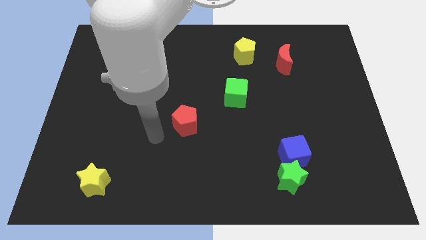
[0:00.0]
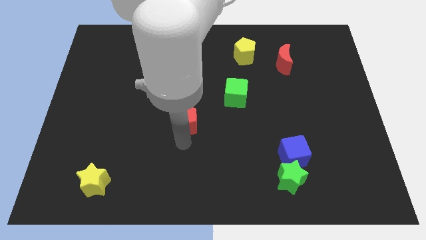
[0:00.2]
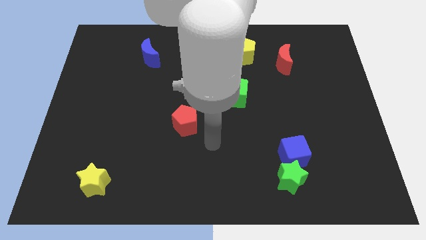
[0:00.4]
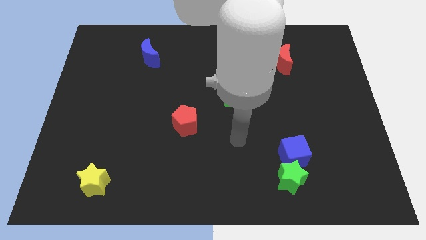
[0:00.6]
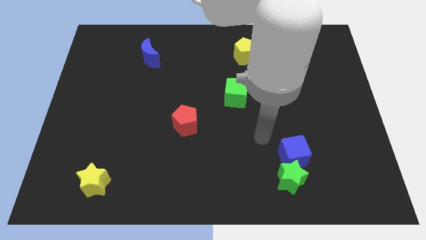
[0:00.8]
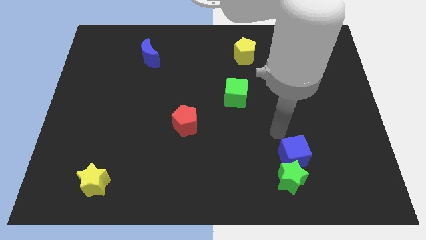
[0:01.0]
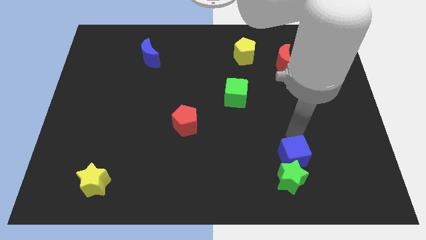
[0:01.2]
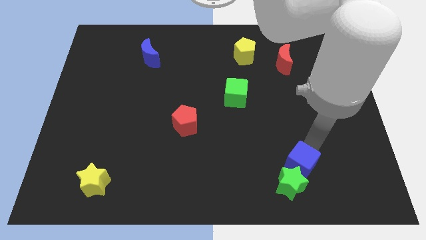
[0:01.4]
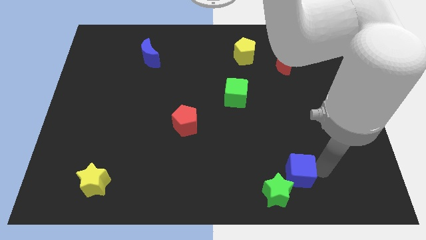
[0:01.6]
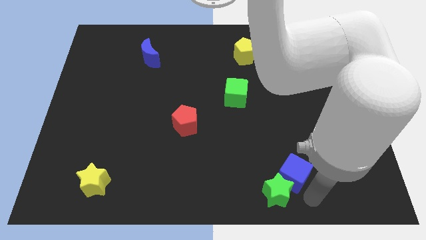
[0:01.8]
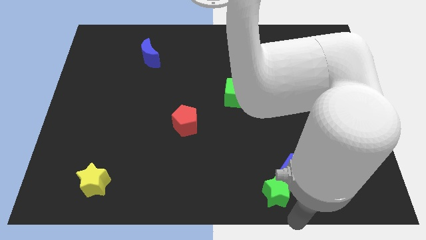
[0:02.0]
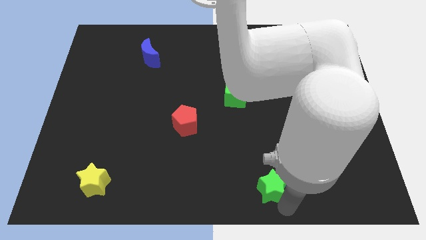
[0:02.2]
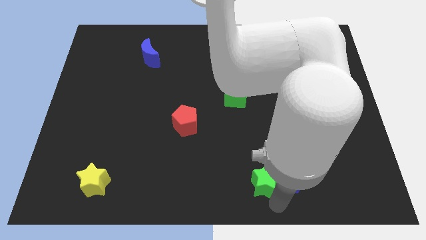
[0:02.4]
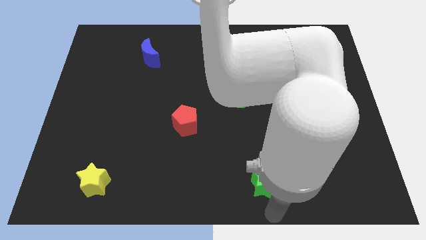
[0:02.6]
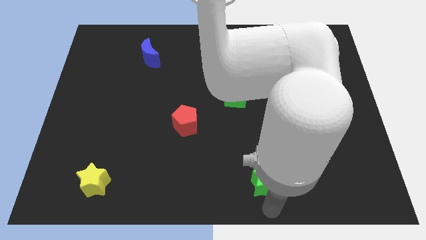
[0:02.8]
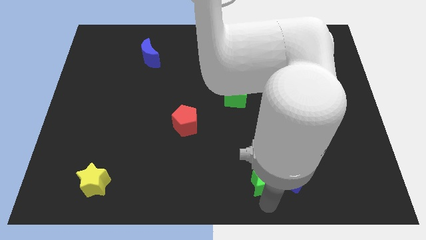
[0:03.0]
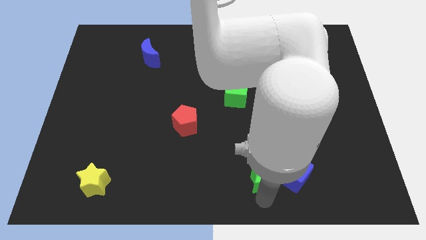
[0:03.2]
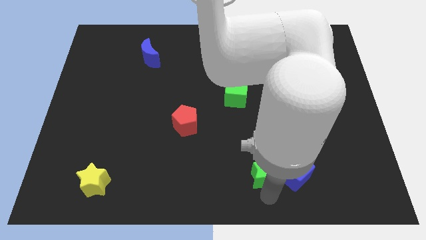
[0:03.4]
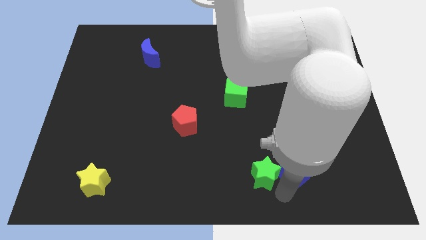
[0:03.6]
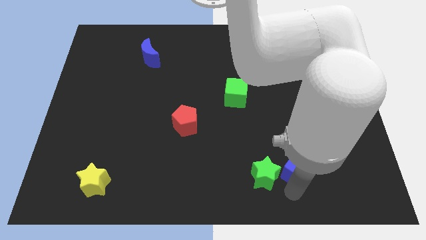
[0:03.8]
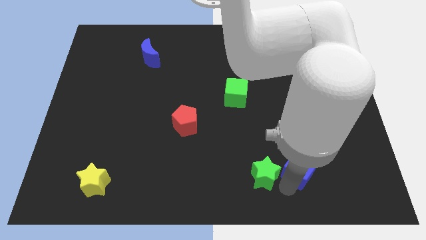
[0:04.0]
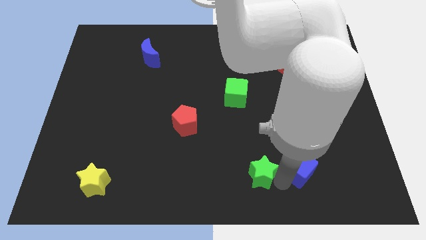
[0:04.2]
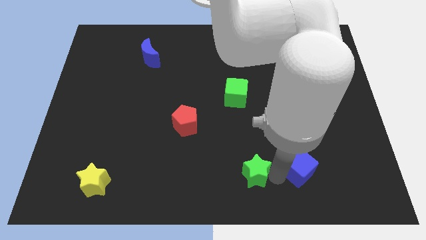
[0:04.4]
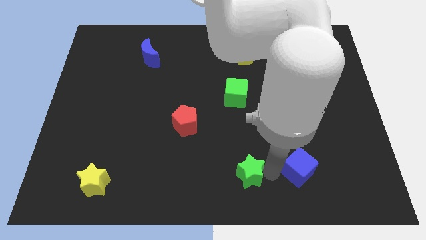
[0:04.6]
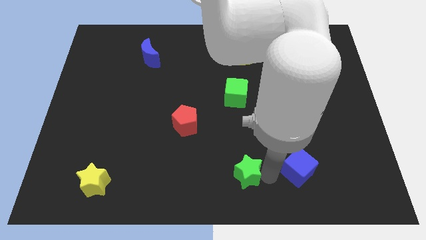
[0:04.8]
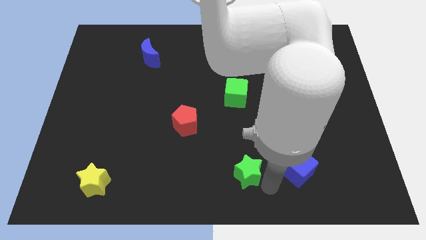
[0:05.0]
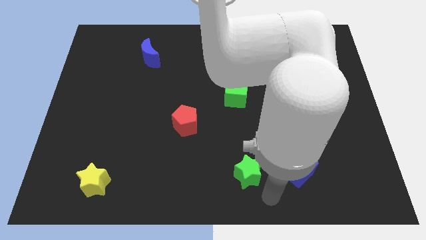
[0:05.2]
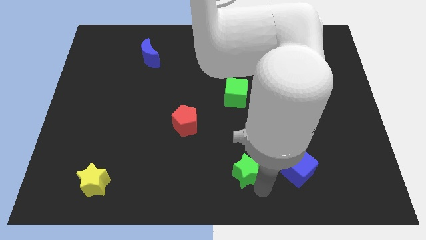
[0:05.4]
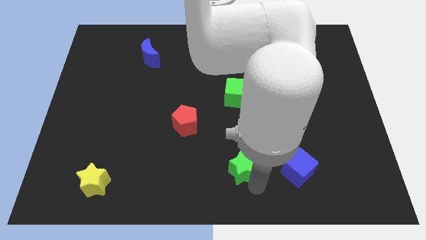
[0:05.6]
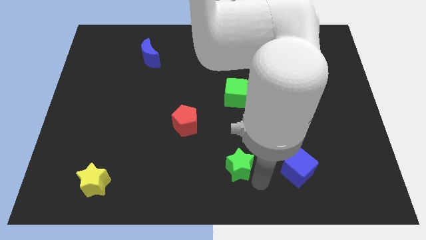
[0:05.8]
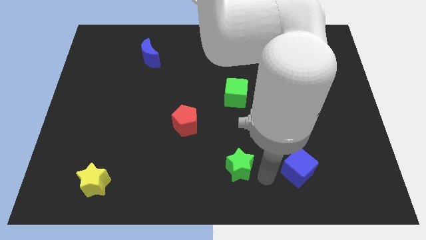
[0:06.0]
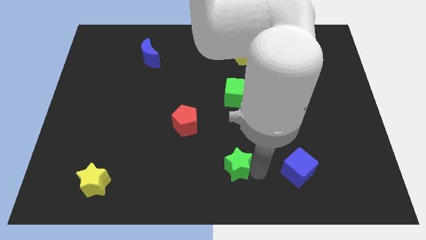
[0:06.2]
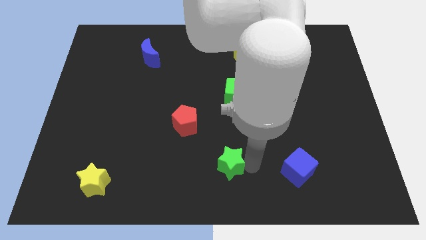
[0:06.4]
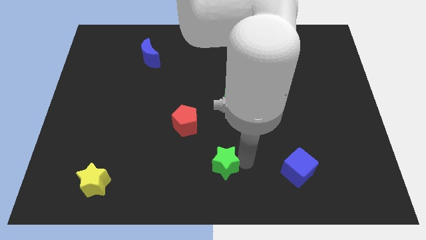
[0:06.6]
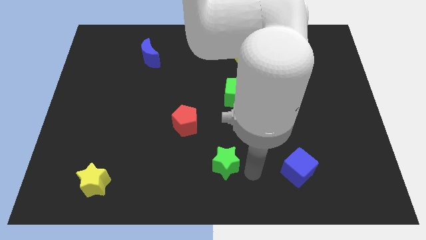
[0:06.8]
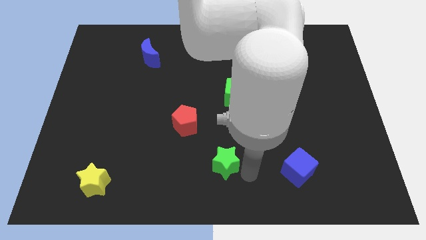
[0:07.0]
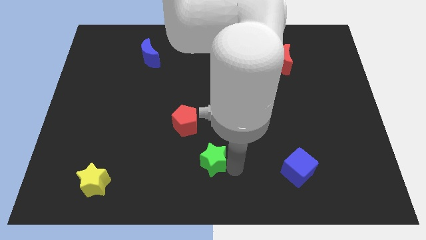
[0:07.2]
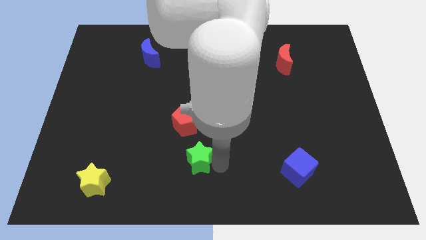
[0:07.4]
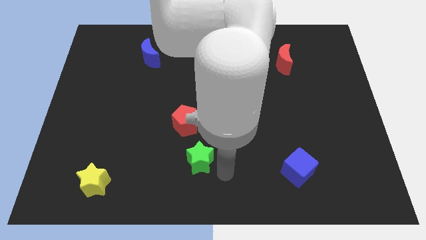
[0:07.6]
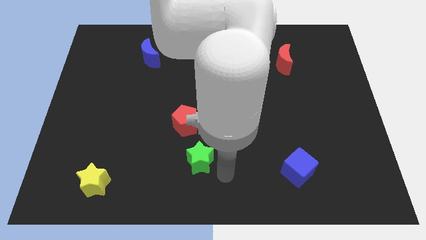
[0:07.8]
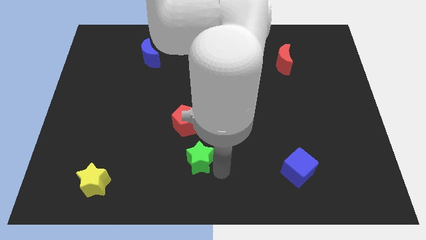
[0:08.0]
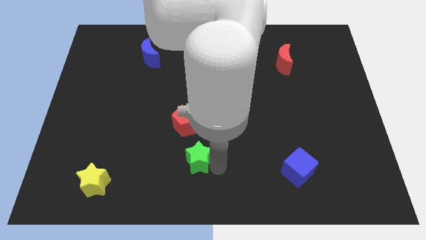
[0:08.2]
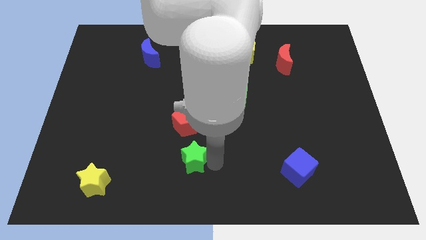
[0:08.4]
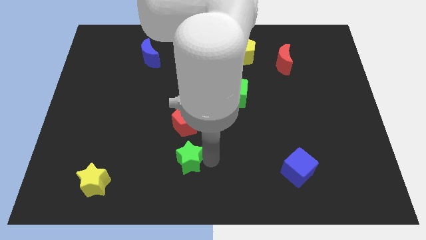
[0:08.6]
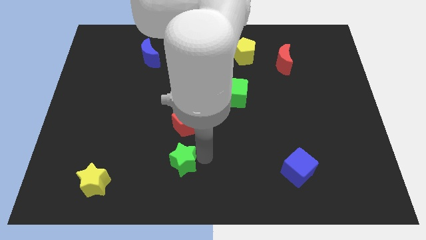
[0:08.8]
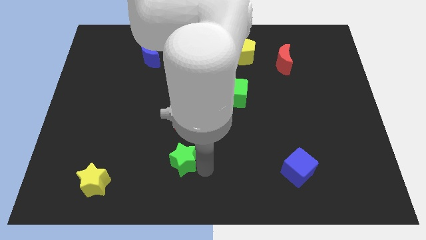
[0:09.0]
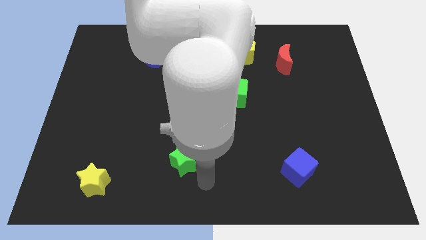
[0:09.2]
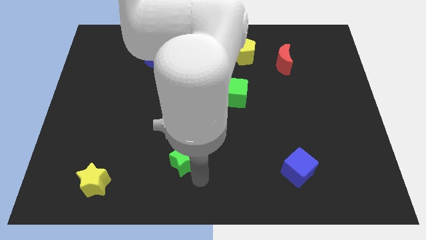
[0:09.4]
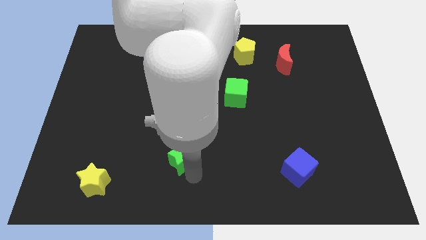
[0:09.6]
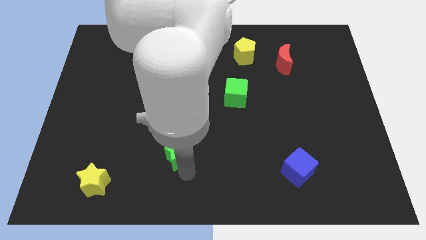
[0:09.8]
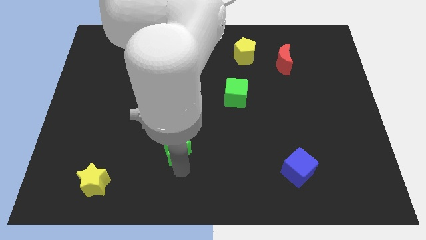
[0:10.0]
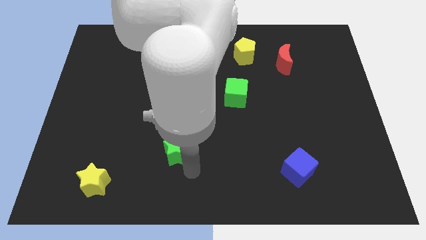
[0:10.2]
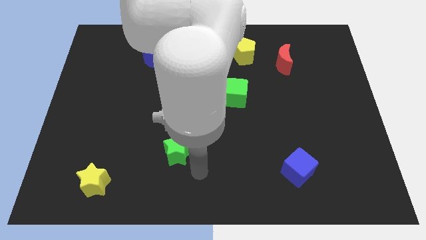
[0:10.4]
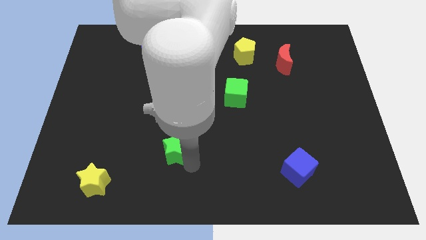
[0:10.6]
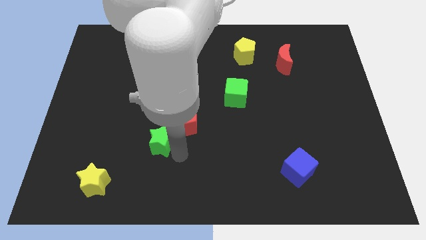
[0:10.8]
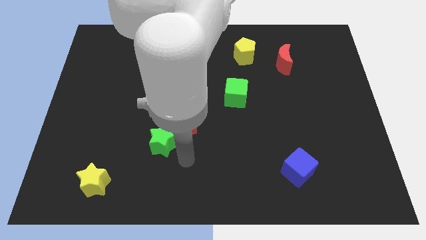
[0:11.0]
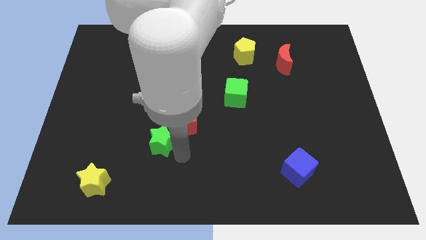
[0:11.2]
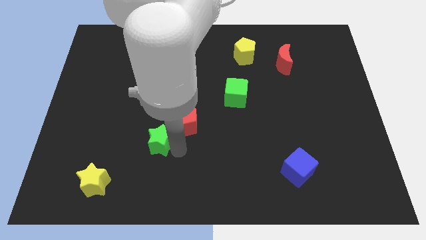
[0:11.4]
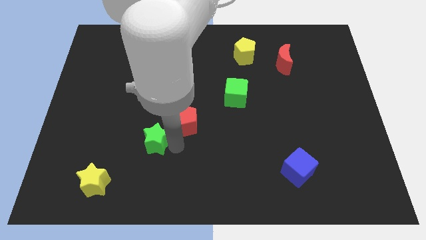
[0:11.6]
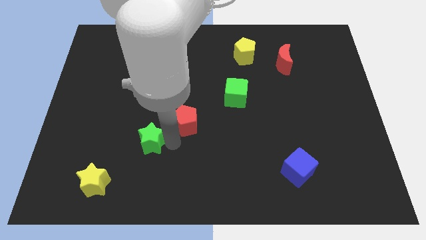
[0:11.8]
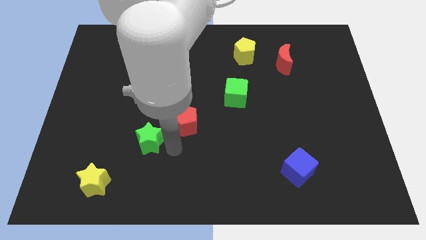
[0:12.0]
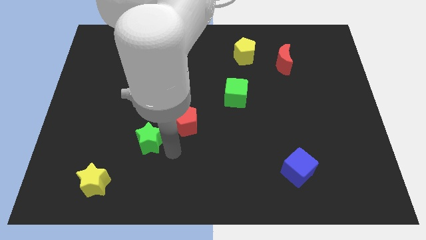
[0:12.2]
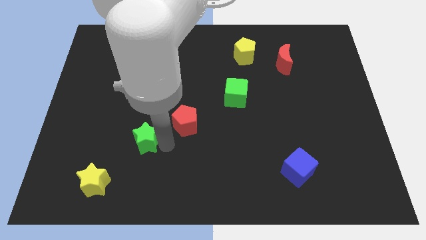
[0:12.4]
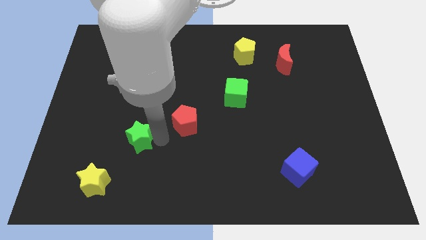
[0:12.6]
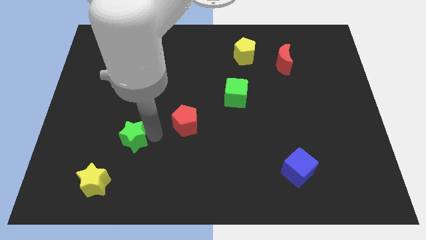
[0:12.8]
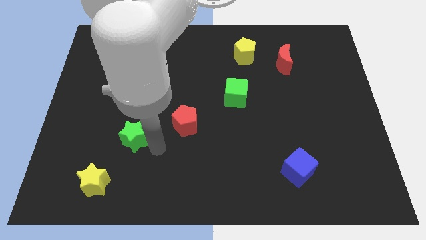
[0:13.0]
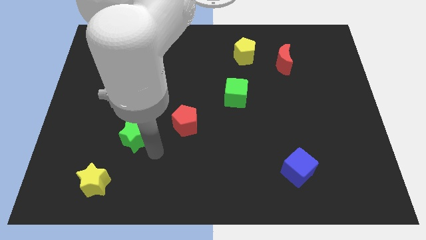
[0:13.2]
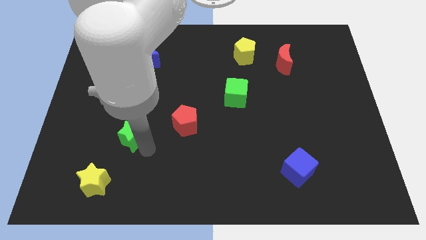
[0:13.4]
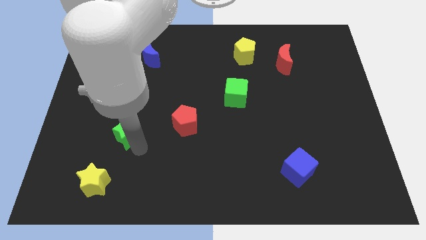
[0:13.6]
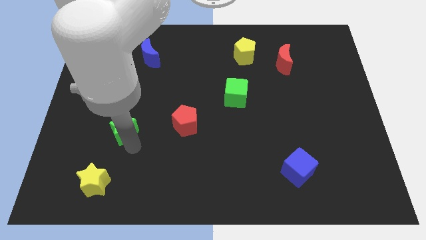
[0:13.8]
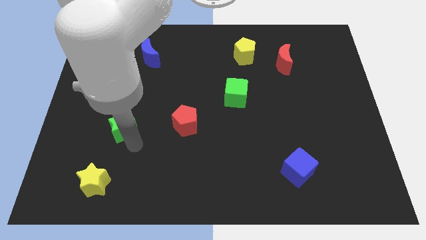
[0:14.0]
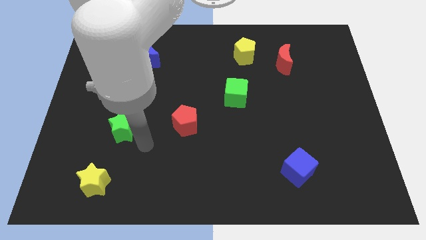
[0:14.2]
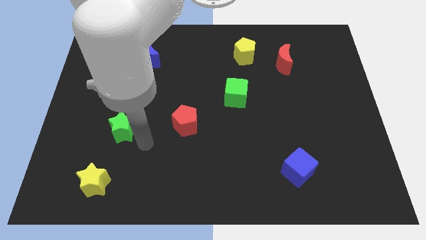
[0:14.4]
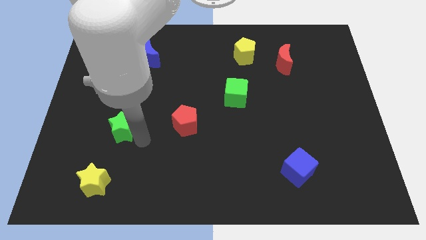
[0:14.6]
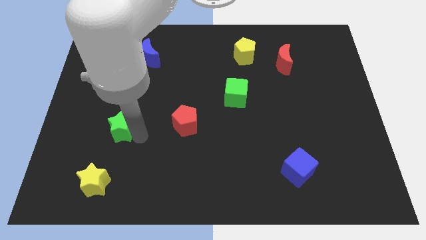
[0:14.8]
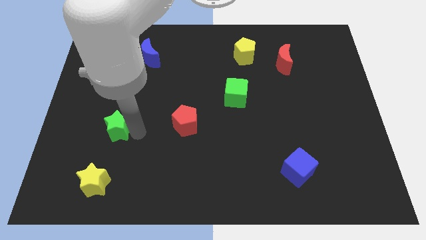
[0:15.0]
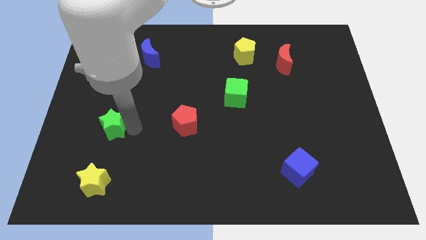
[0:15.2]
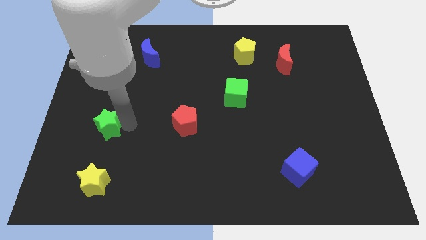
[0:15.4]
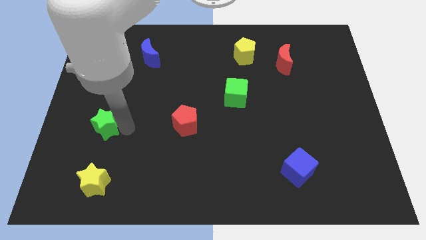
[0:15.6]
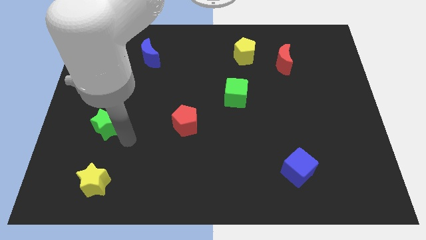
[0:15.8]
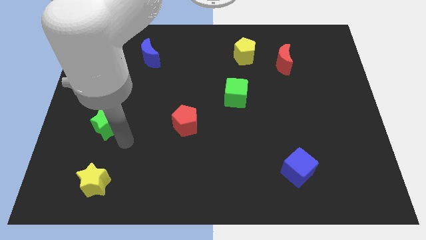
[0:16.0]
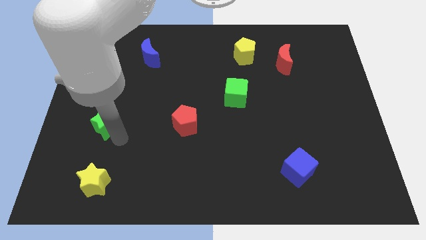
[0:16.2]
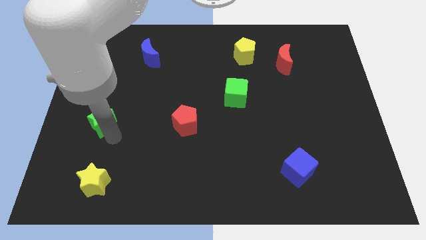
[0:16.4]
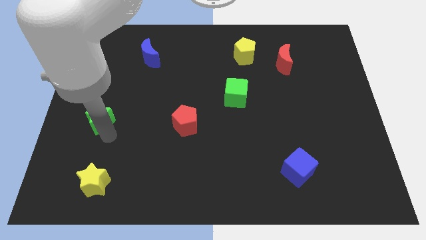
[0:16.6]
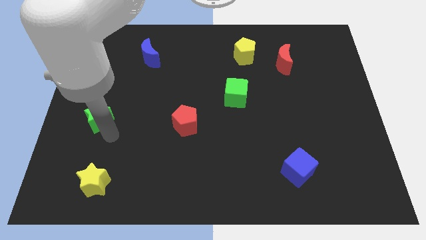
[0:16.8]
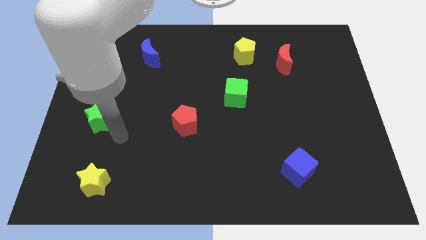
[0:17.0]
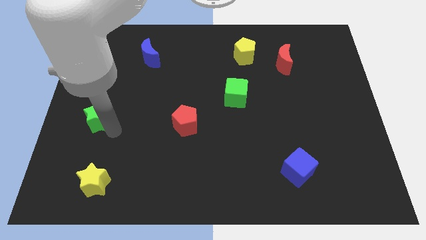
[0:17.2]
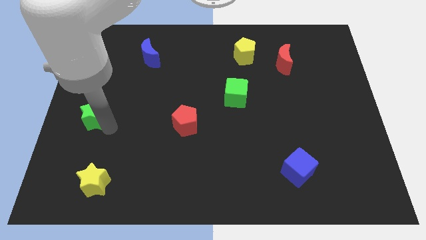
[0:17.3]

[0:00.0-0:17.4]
move the green star to the left side of the board
